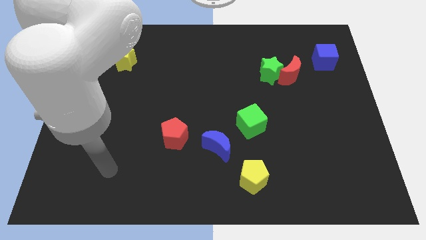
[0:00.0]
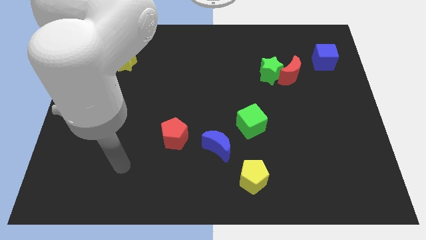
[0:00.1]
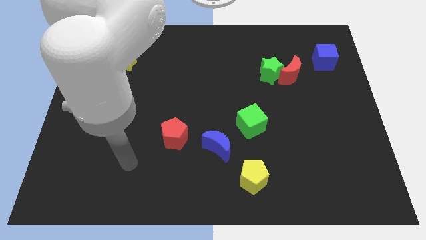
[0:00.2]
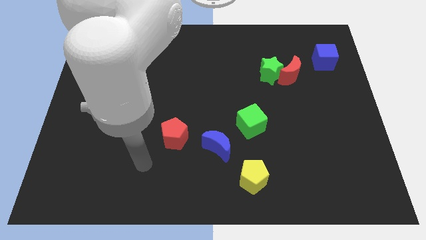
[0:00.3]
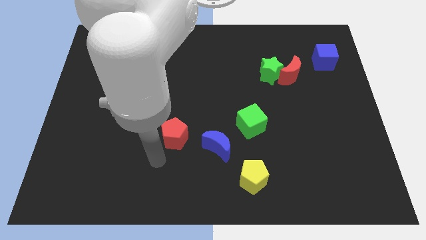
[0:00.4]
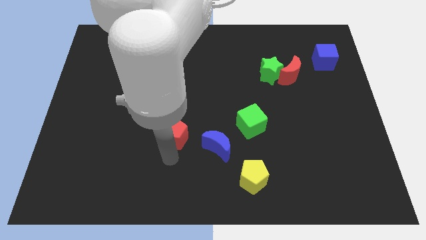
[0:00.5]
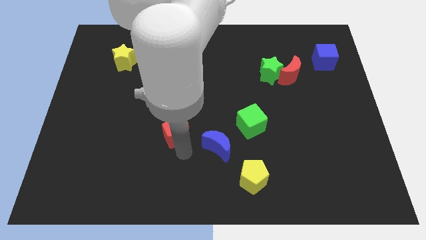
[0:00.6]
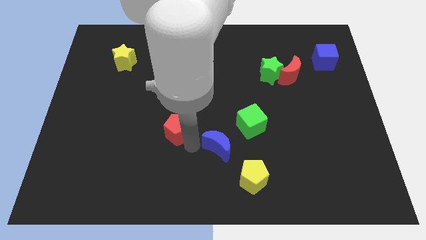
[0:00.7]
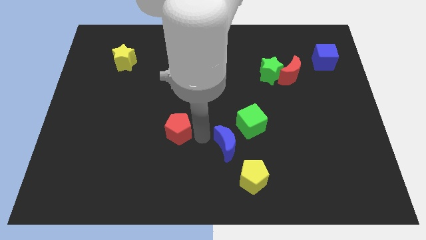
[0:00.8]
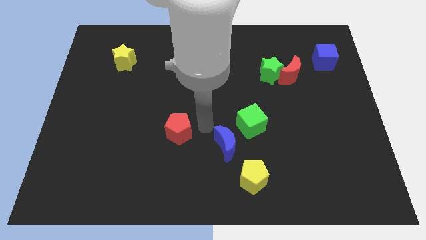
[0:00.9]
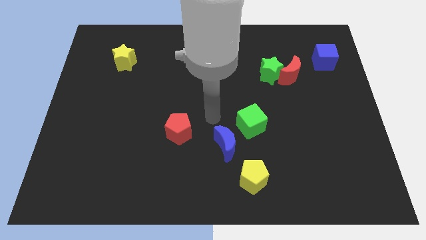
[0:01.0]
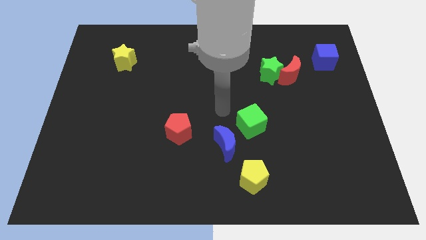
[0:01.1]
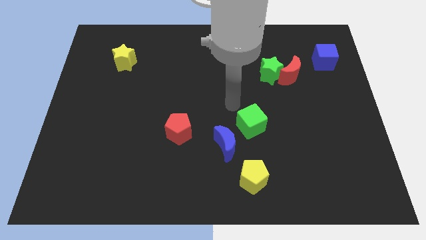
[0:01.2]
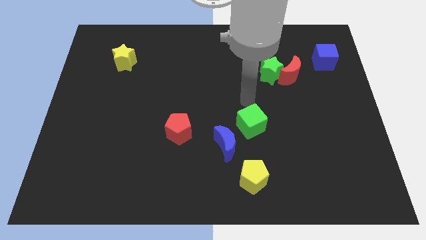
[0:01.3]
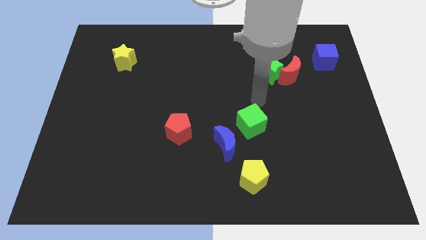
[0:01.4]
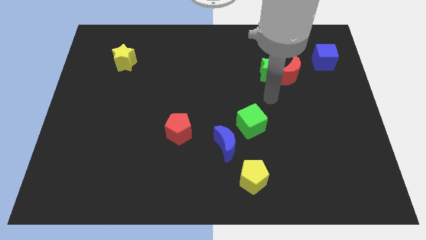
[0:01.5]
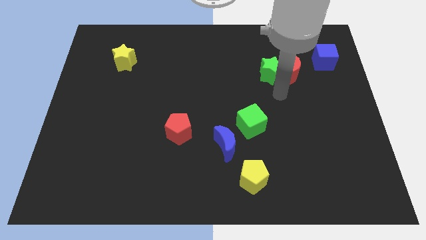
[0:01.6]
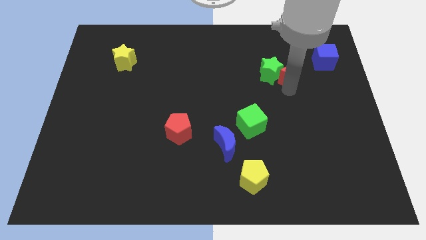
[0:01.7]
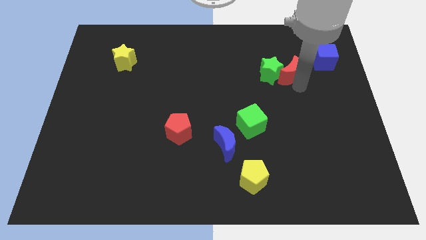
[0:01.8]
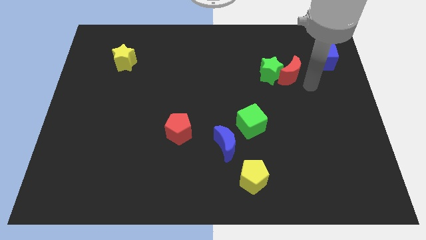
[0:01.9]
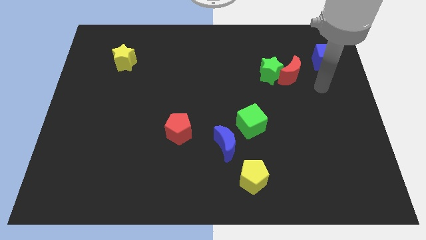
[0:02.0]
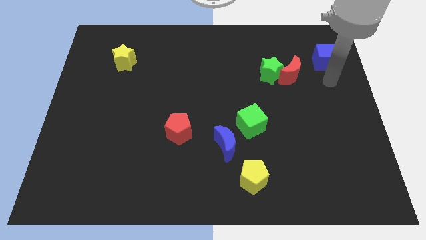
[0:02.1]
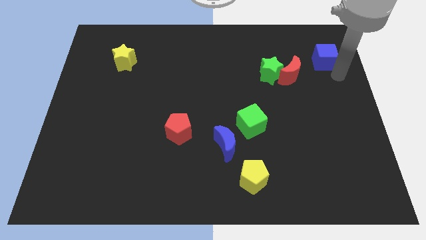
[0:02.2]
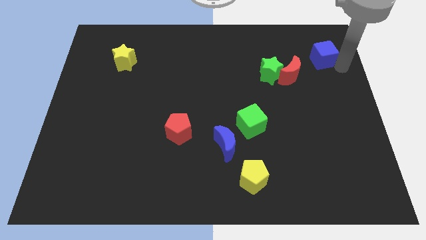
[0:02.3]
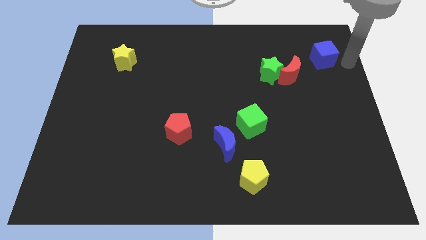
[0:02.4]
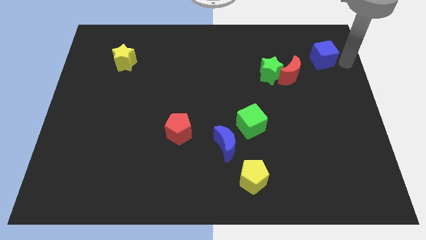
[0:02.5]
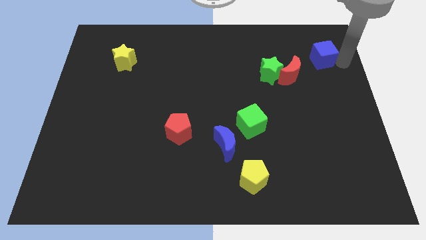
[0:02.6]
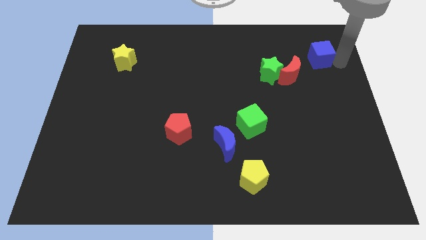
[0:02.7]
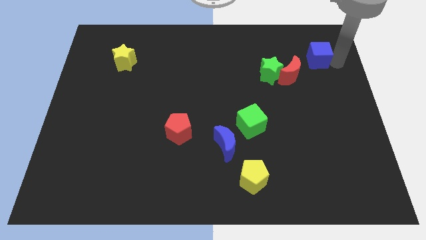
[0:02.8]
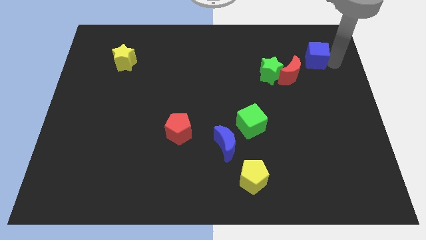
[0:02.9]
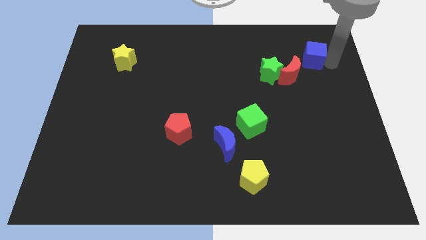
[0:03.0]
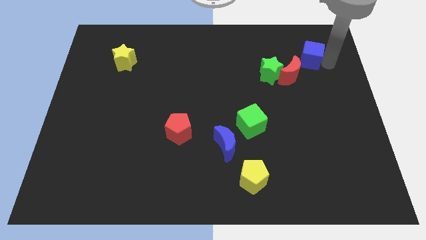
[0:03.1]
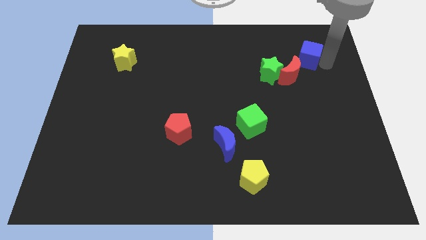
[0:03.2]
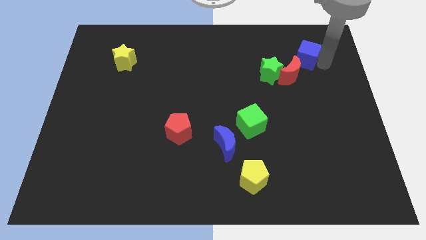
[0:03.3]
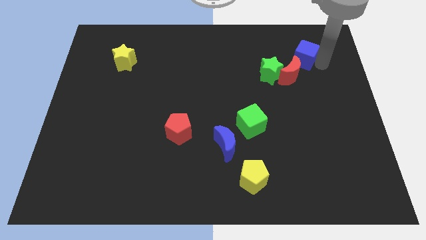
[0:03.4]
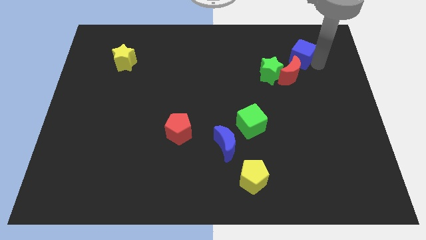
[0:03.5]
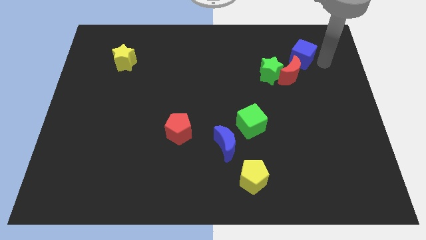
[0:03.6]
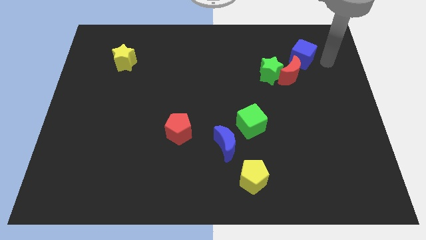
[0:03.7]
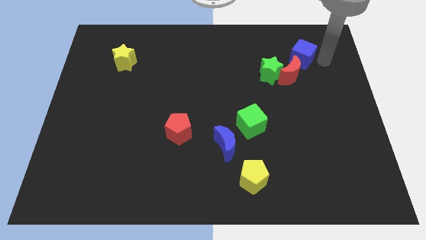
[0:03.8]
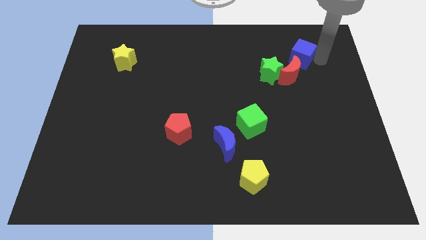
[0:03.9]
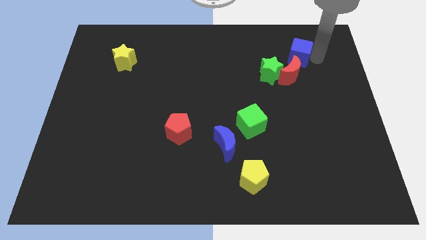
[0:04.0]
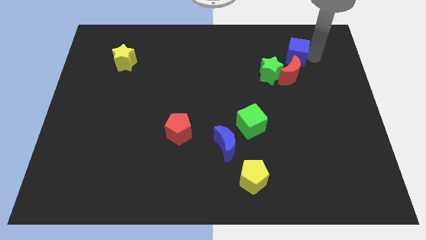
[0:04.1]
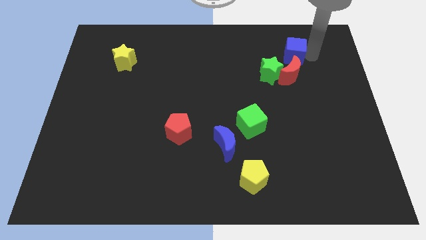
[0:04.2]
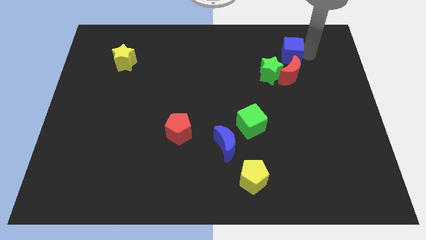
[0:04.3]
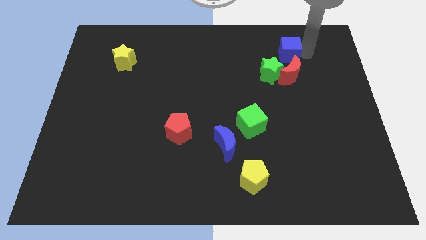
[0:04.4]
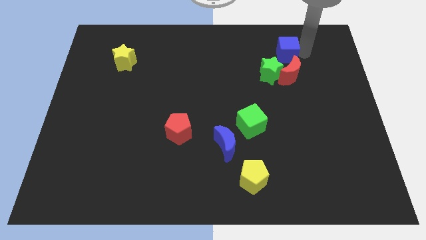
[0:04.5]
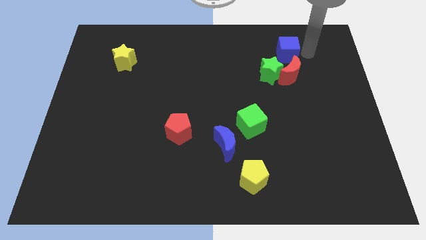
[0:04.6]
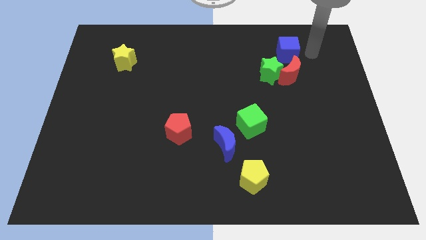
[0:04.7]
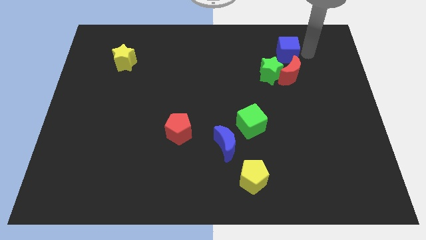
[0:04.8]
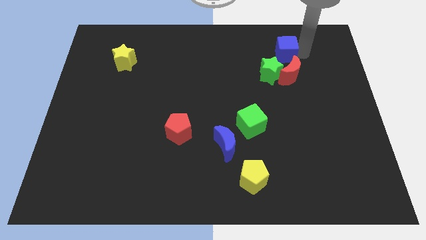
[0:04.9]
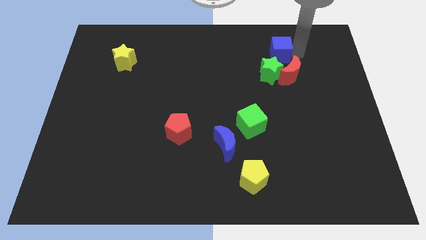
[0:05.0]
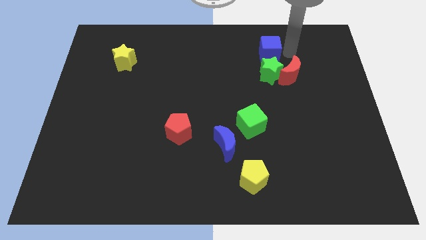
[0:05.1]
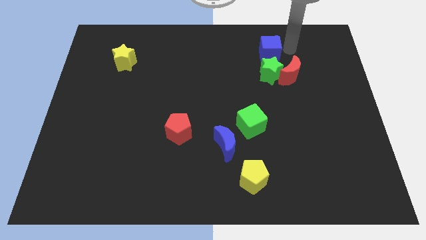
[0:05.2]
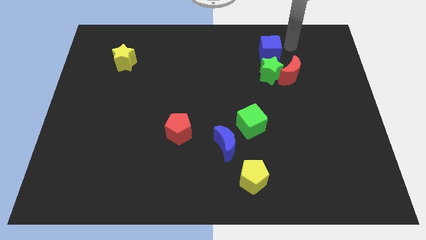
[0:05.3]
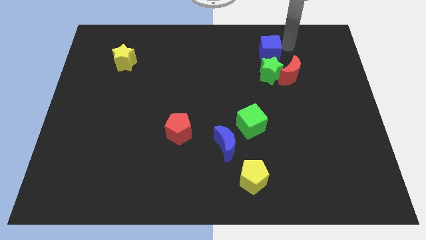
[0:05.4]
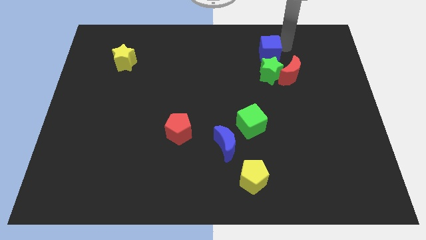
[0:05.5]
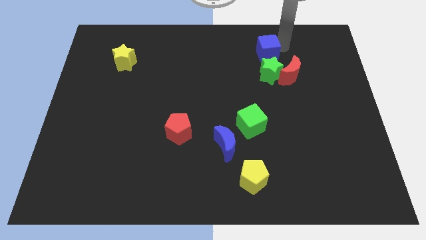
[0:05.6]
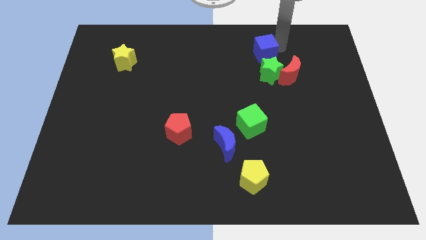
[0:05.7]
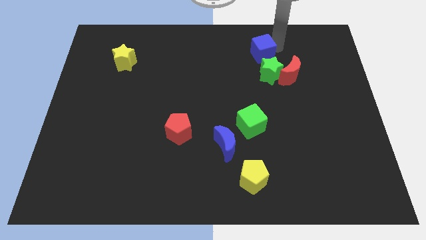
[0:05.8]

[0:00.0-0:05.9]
push the blue cube to the top left of the green star
